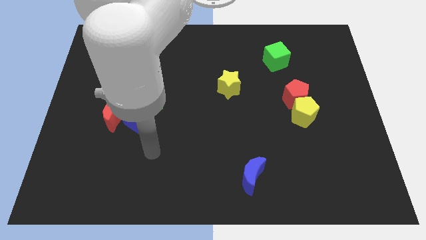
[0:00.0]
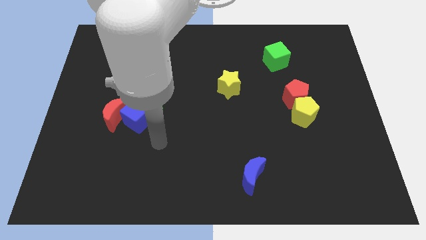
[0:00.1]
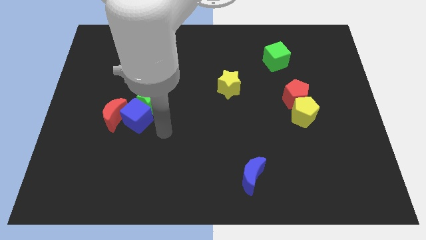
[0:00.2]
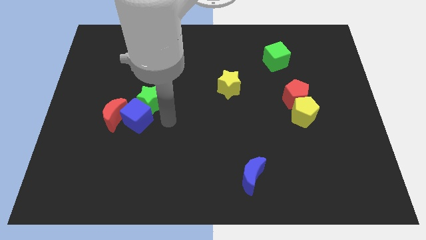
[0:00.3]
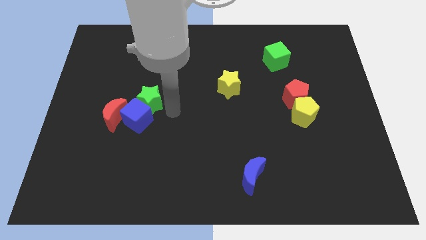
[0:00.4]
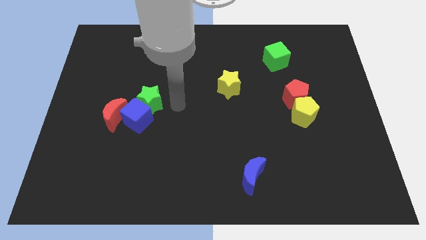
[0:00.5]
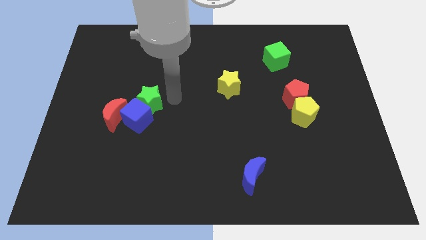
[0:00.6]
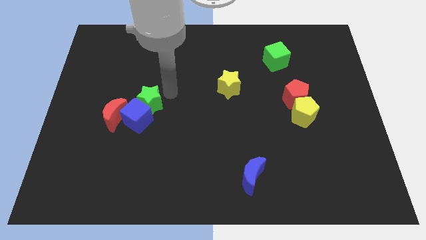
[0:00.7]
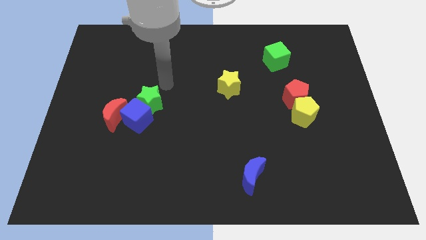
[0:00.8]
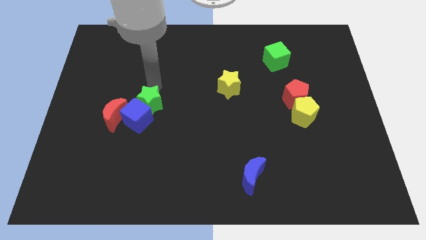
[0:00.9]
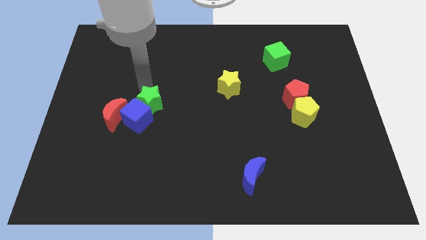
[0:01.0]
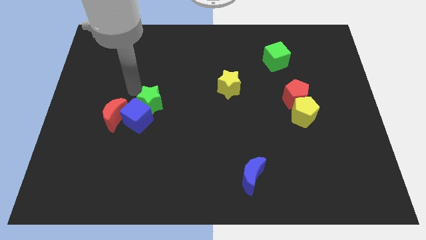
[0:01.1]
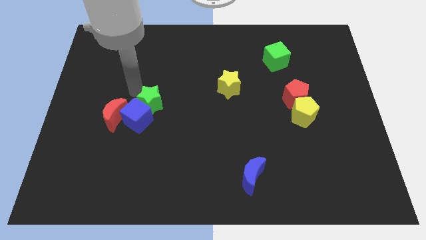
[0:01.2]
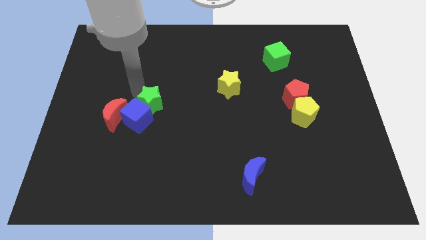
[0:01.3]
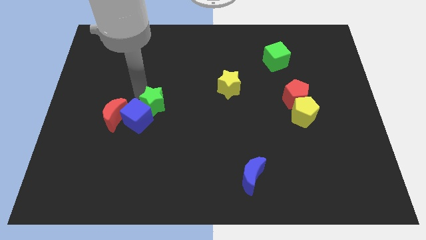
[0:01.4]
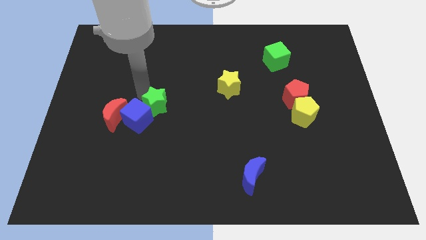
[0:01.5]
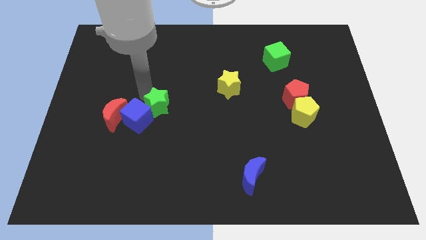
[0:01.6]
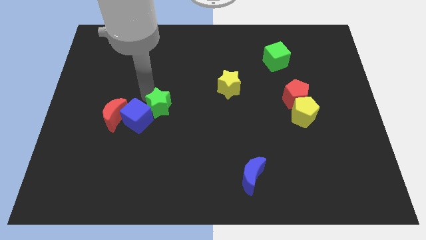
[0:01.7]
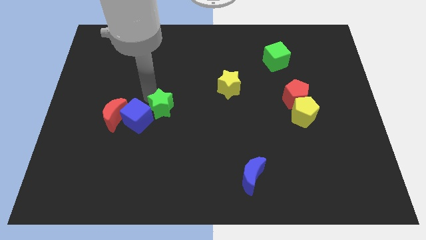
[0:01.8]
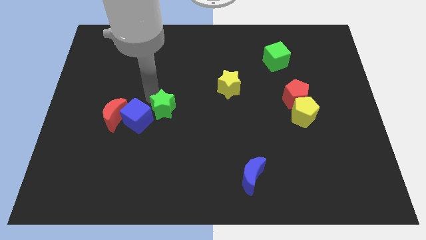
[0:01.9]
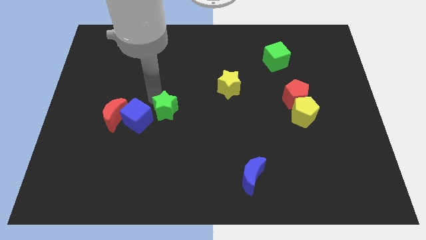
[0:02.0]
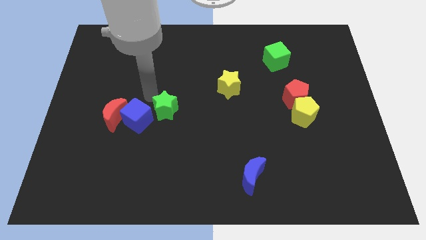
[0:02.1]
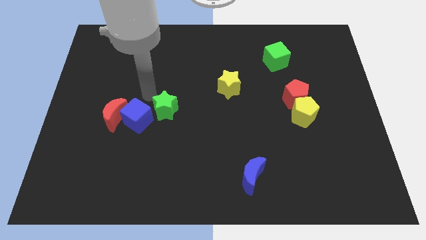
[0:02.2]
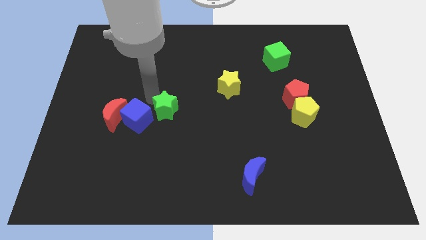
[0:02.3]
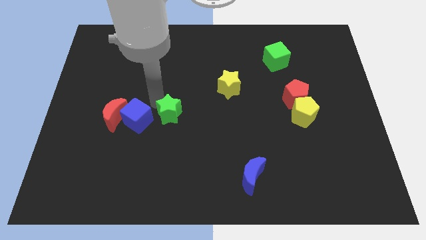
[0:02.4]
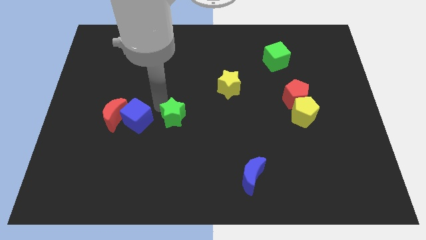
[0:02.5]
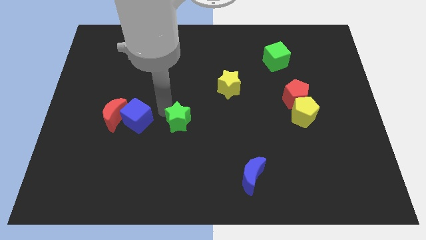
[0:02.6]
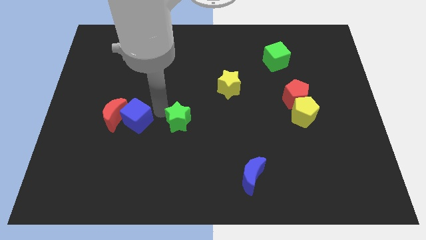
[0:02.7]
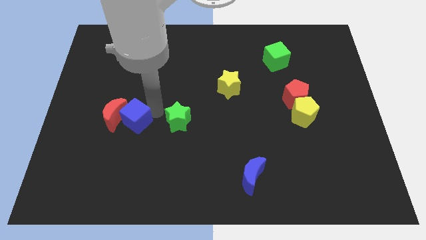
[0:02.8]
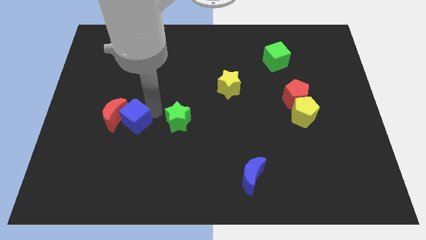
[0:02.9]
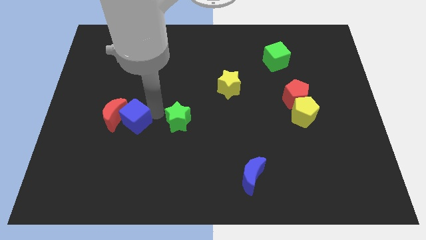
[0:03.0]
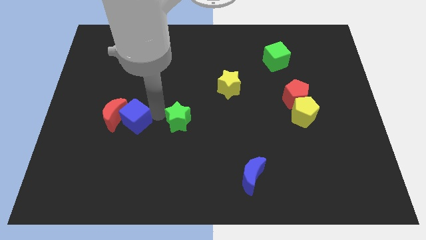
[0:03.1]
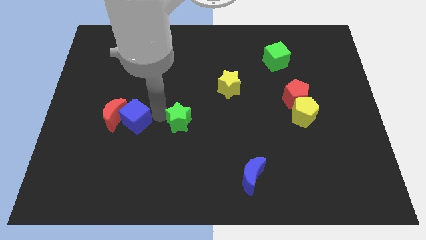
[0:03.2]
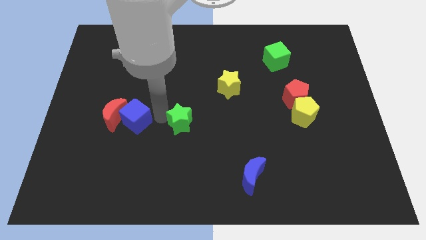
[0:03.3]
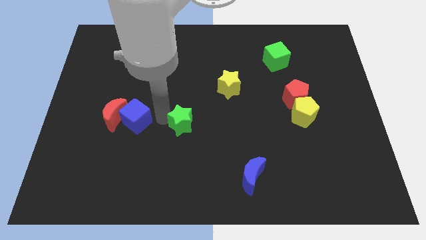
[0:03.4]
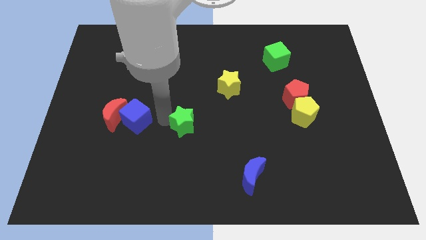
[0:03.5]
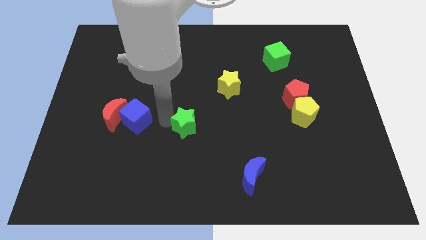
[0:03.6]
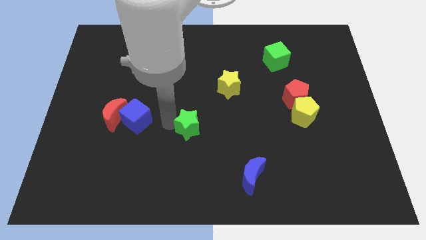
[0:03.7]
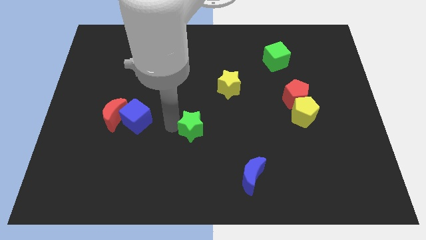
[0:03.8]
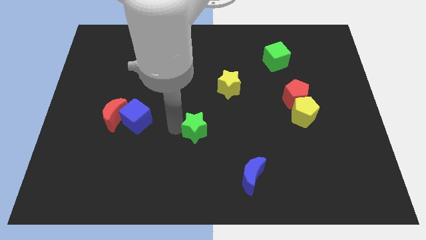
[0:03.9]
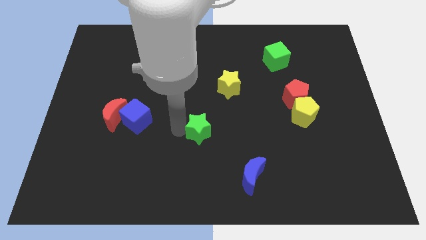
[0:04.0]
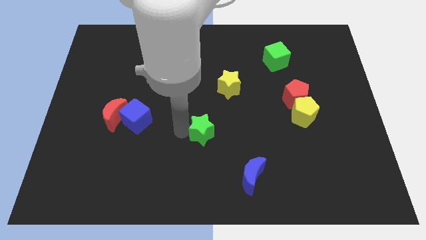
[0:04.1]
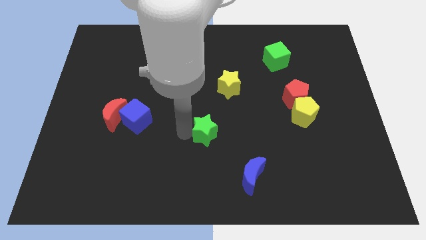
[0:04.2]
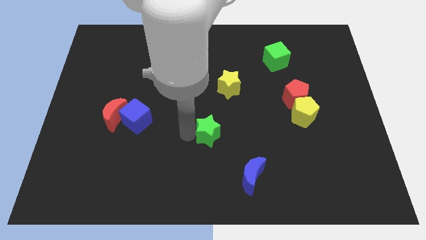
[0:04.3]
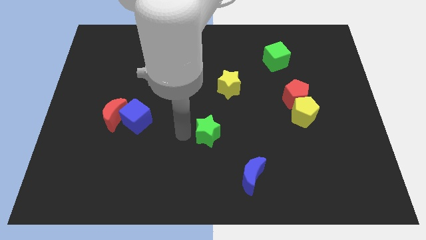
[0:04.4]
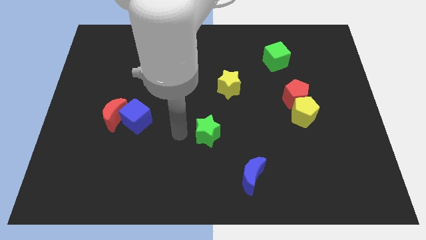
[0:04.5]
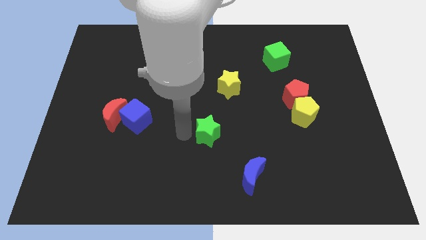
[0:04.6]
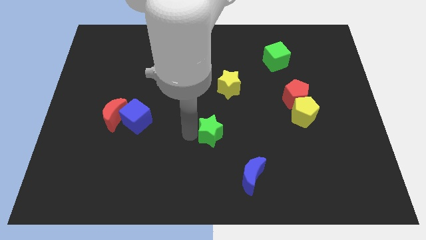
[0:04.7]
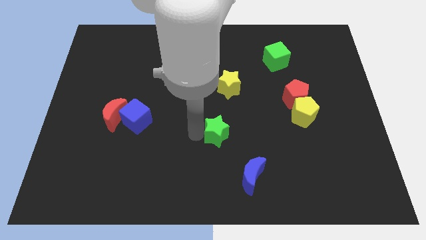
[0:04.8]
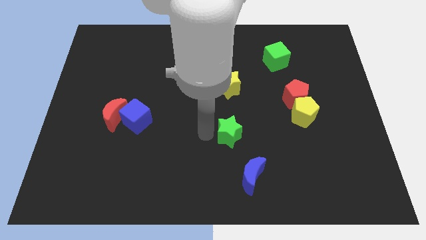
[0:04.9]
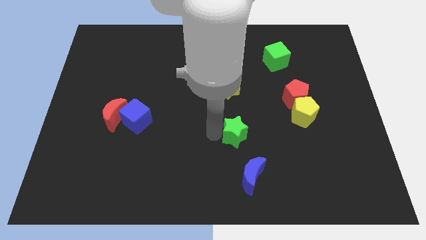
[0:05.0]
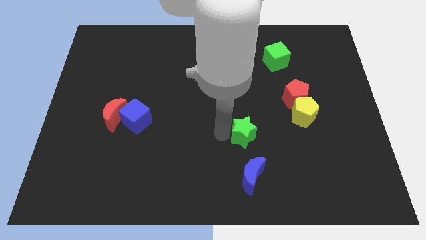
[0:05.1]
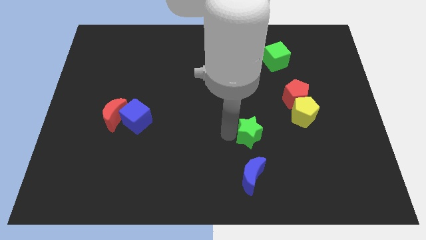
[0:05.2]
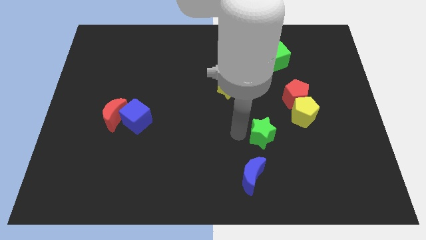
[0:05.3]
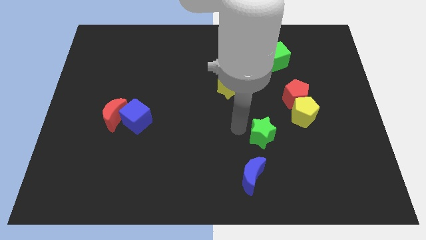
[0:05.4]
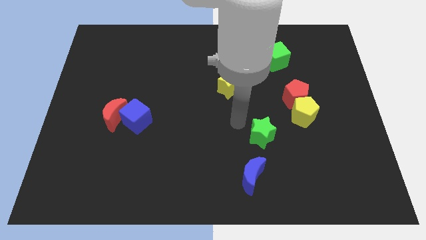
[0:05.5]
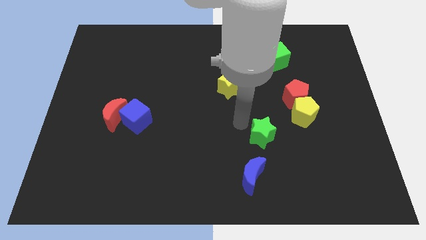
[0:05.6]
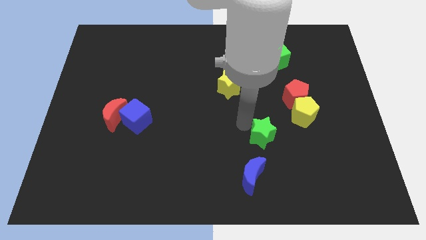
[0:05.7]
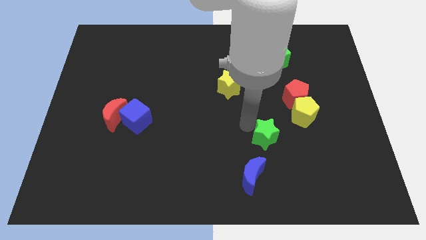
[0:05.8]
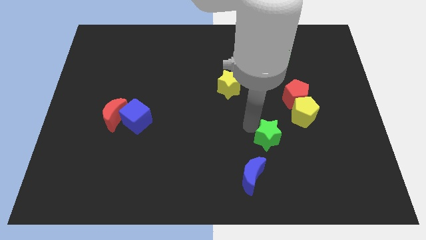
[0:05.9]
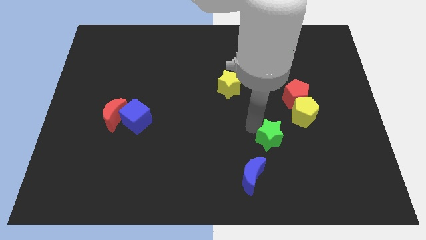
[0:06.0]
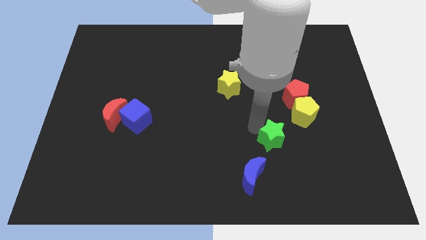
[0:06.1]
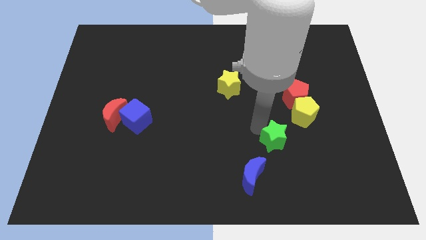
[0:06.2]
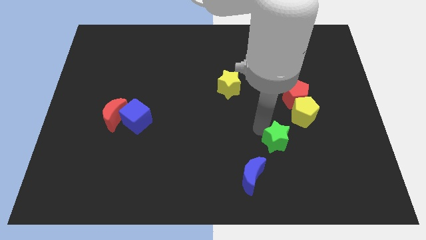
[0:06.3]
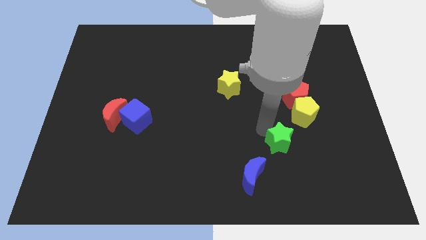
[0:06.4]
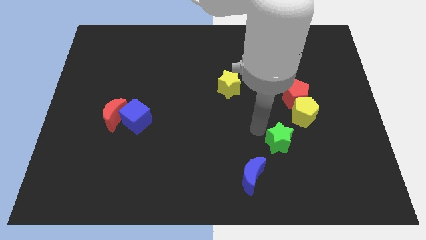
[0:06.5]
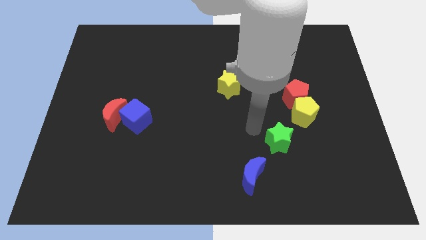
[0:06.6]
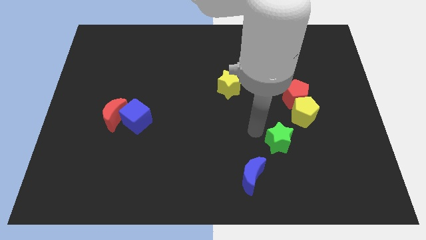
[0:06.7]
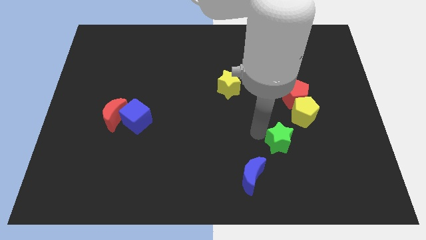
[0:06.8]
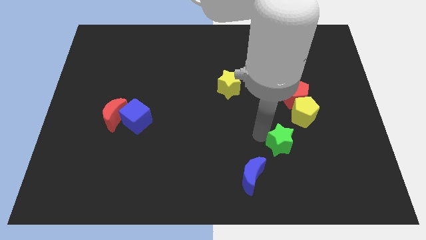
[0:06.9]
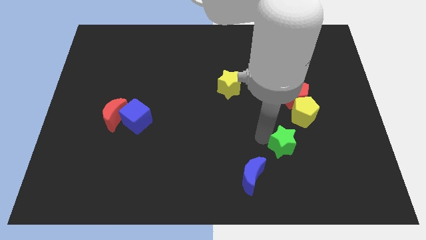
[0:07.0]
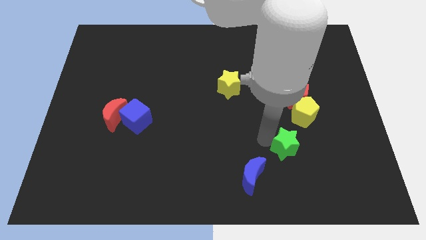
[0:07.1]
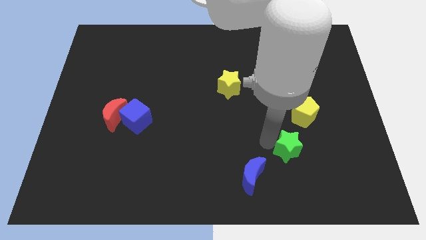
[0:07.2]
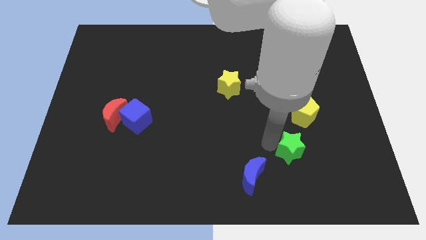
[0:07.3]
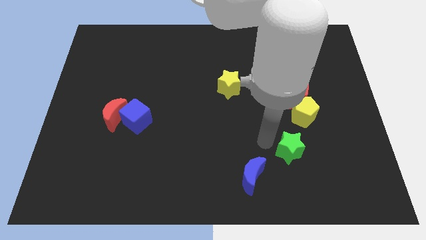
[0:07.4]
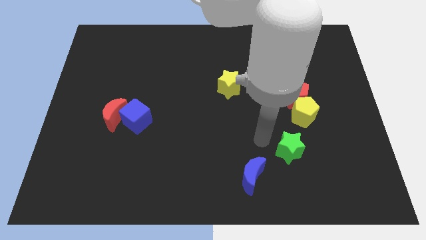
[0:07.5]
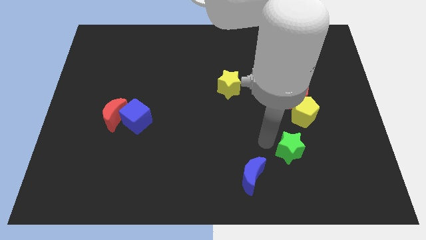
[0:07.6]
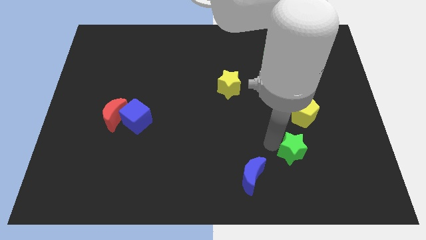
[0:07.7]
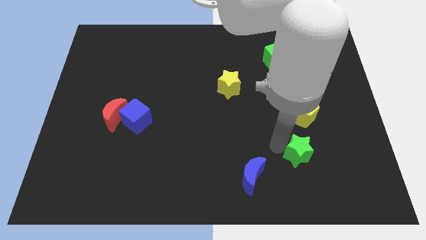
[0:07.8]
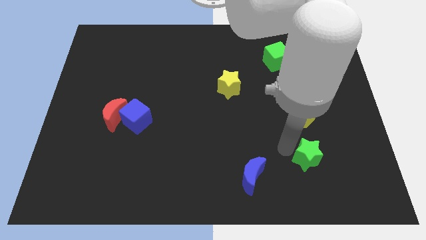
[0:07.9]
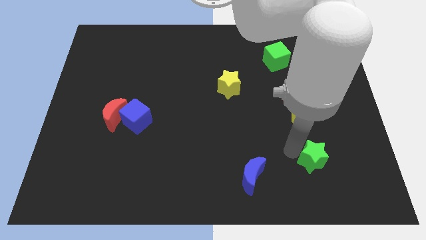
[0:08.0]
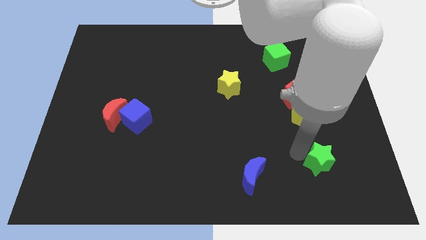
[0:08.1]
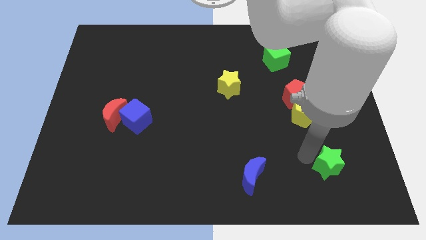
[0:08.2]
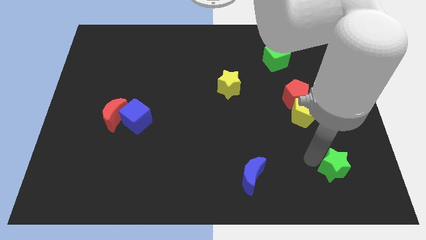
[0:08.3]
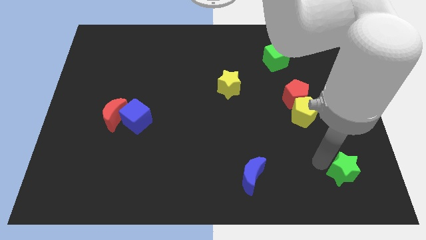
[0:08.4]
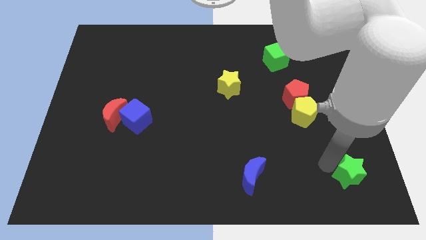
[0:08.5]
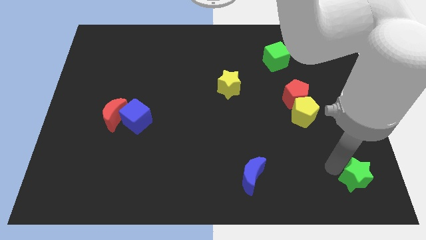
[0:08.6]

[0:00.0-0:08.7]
put the green star to the bottom right
